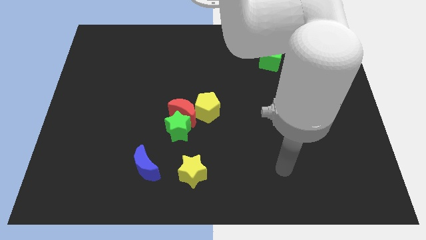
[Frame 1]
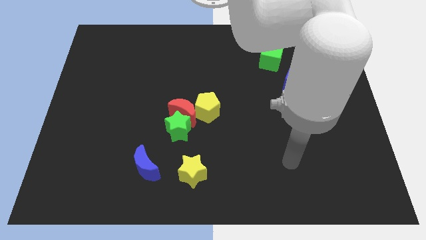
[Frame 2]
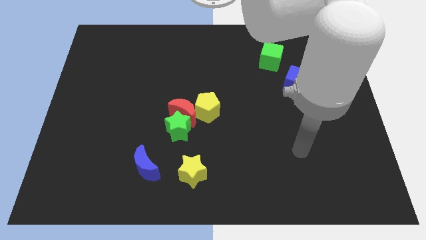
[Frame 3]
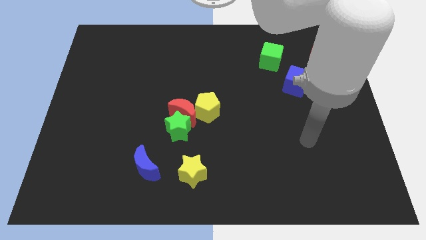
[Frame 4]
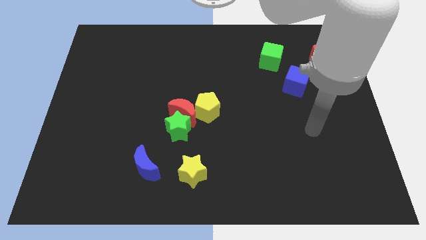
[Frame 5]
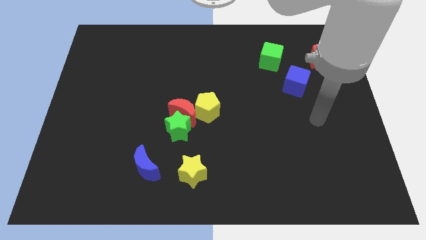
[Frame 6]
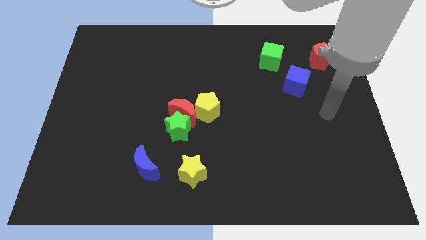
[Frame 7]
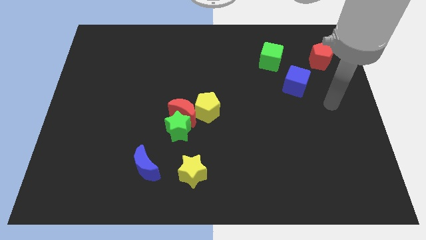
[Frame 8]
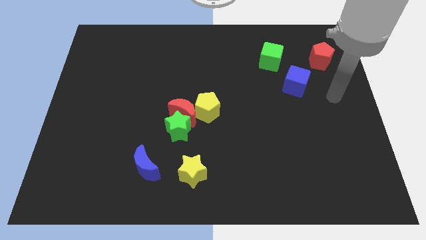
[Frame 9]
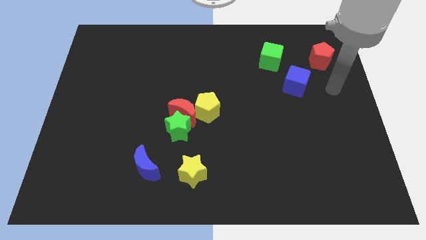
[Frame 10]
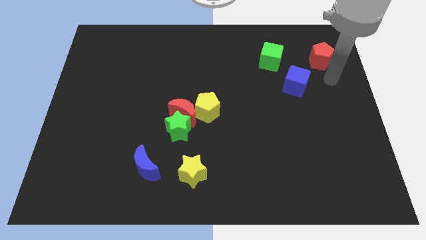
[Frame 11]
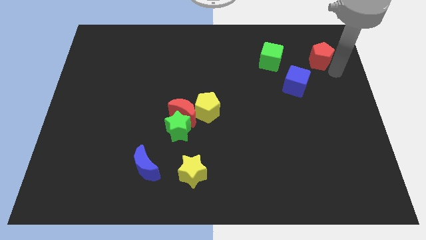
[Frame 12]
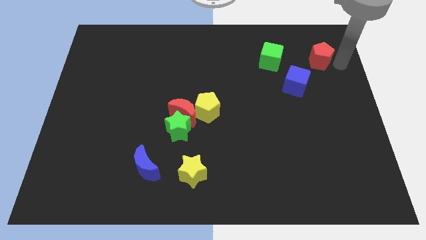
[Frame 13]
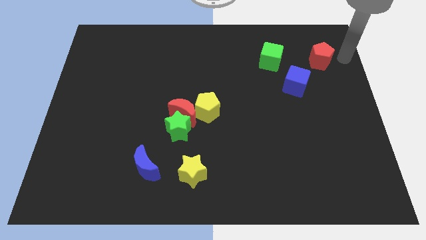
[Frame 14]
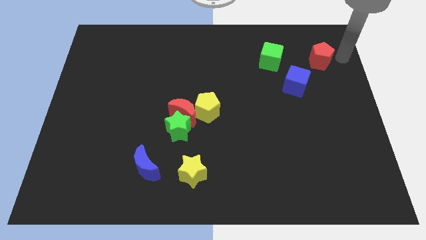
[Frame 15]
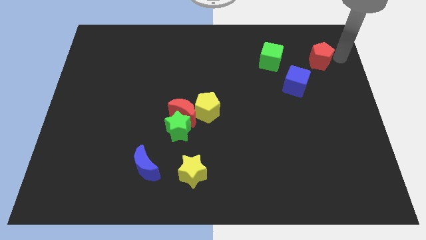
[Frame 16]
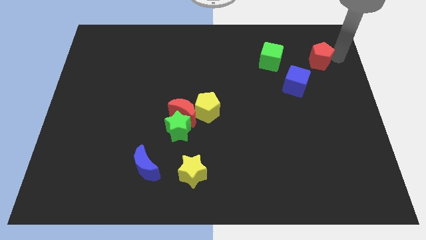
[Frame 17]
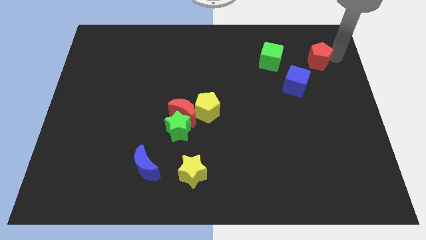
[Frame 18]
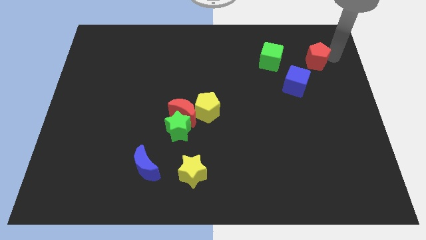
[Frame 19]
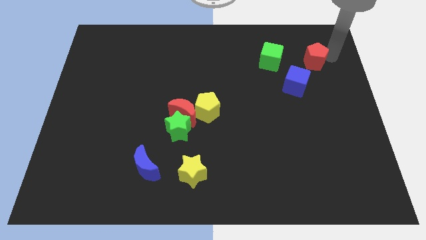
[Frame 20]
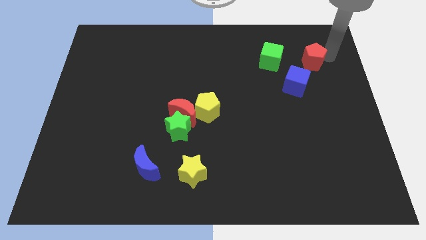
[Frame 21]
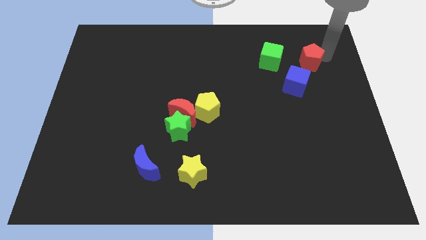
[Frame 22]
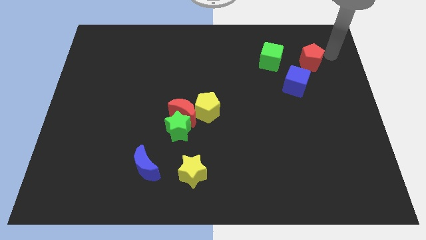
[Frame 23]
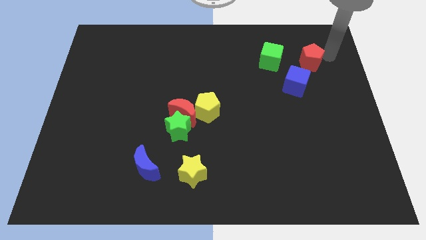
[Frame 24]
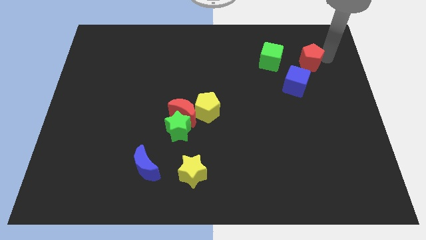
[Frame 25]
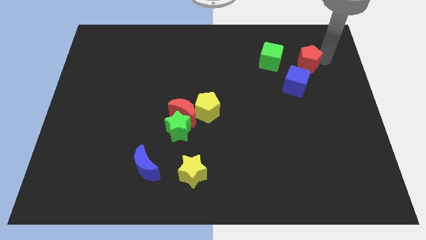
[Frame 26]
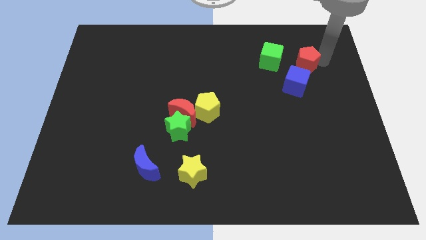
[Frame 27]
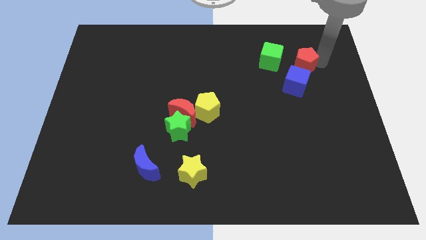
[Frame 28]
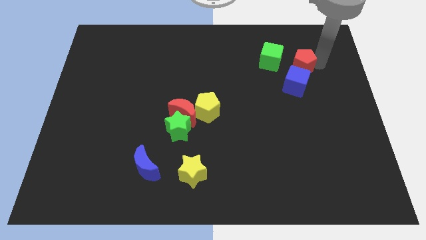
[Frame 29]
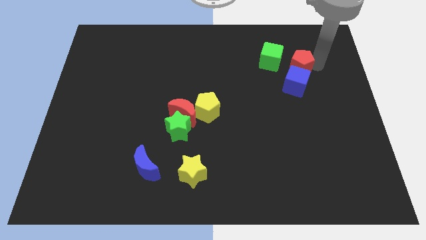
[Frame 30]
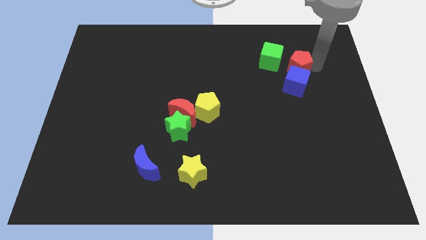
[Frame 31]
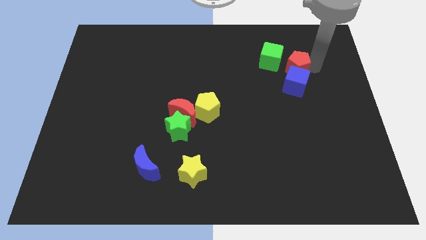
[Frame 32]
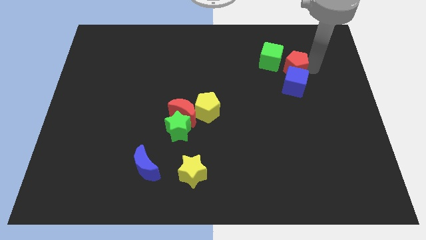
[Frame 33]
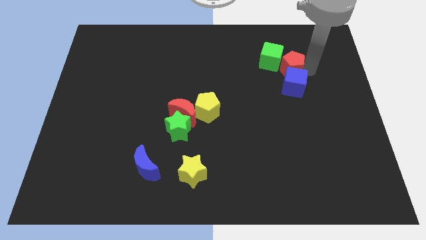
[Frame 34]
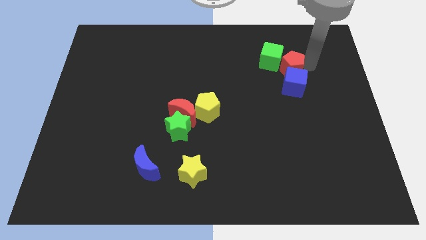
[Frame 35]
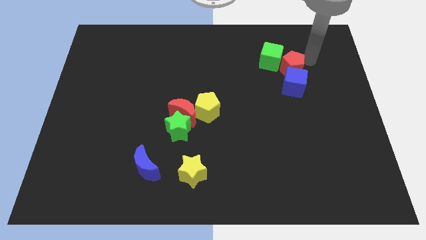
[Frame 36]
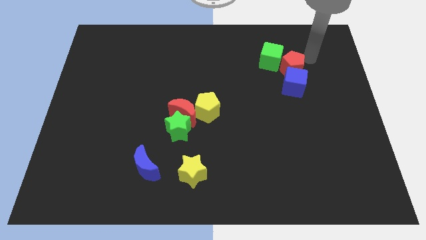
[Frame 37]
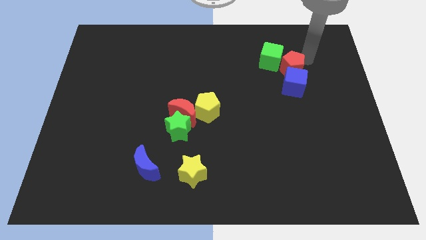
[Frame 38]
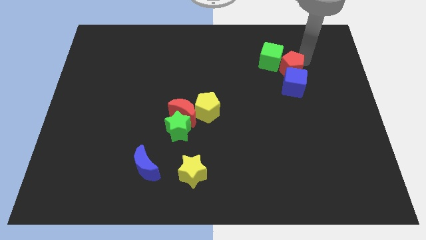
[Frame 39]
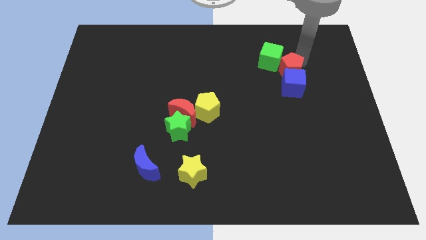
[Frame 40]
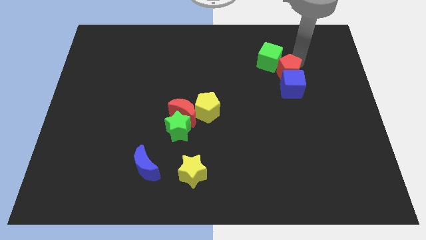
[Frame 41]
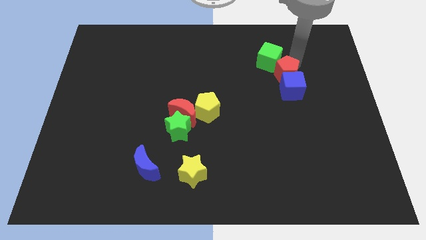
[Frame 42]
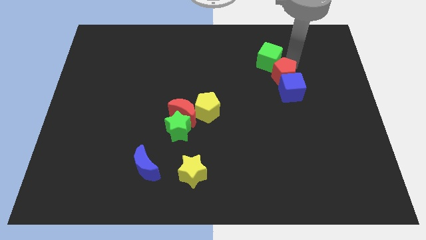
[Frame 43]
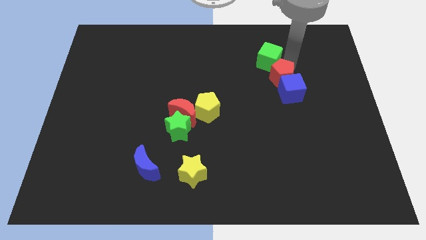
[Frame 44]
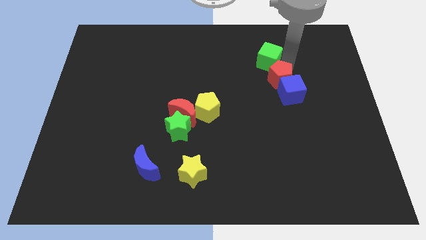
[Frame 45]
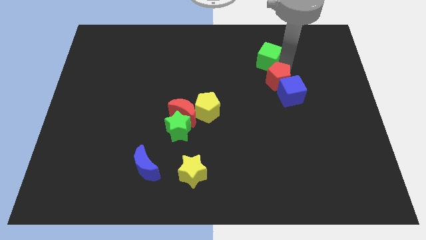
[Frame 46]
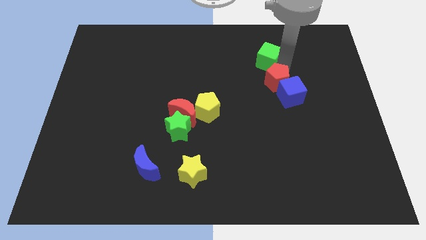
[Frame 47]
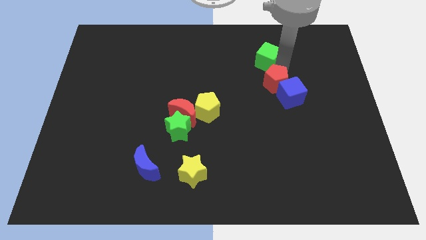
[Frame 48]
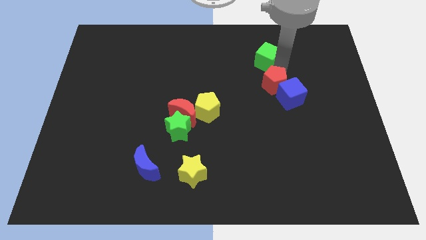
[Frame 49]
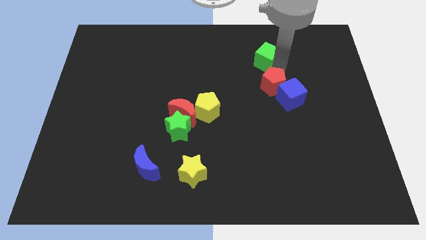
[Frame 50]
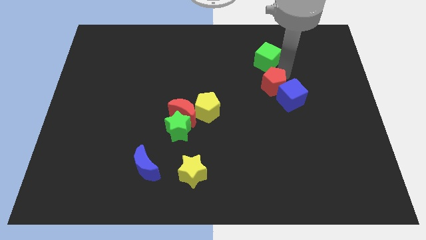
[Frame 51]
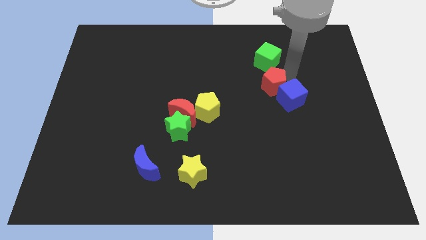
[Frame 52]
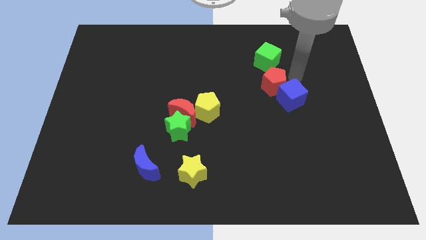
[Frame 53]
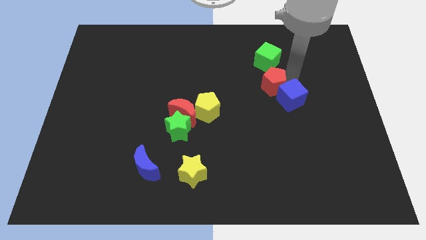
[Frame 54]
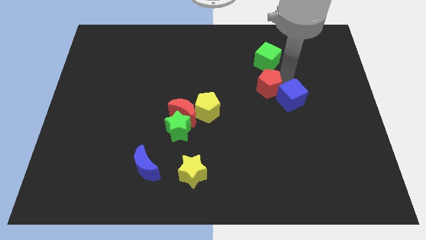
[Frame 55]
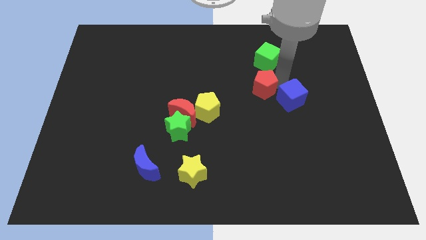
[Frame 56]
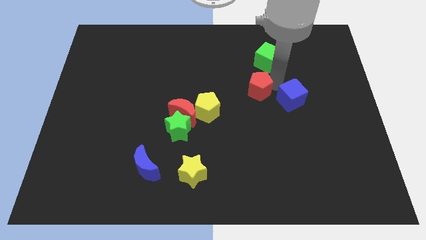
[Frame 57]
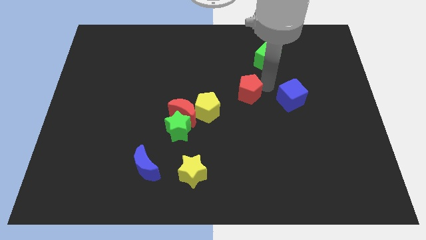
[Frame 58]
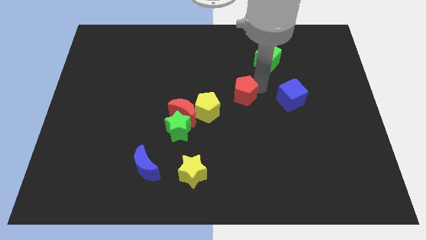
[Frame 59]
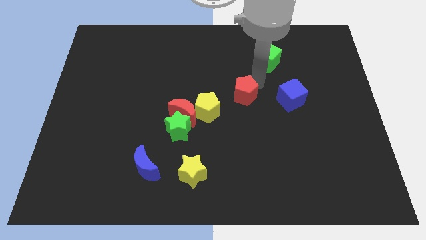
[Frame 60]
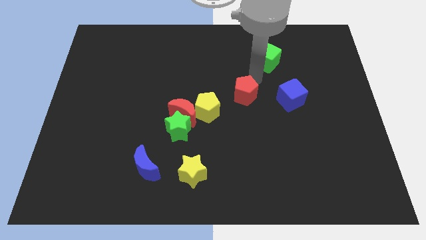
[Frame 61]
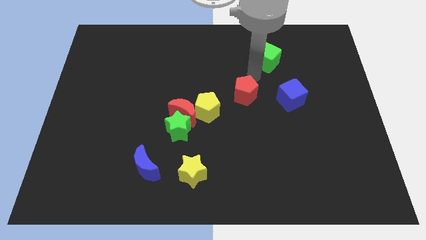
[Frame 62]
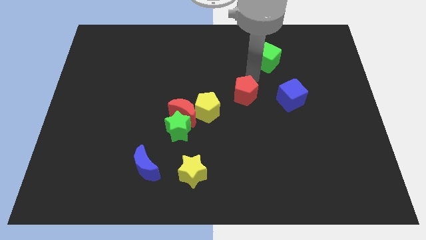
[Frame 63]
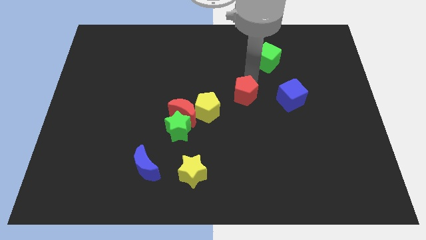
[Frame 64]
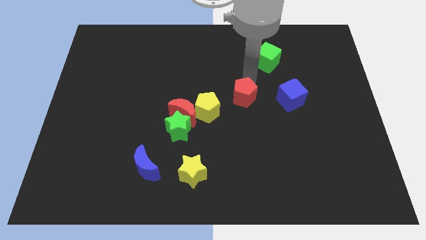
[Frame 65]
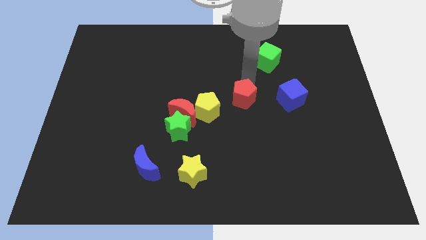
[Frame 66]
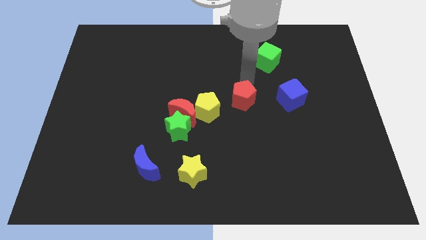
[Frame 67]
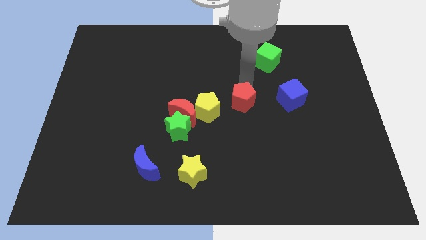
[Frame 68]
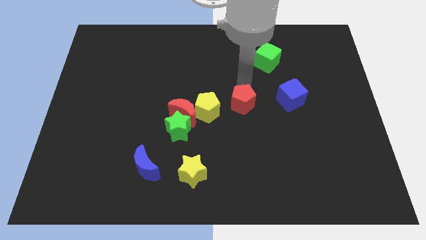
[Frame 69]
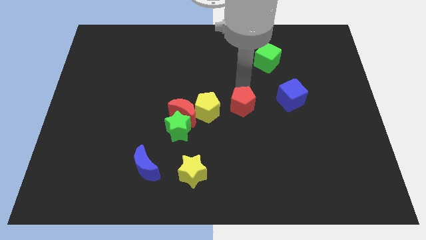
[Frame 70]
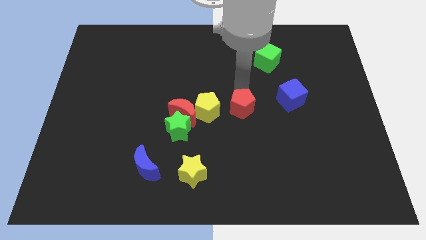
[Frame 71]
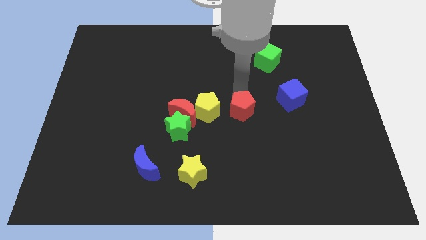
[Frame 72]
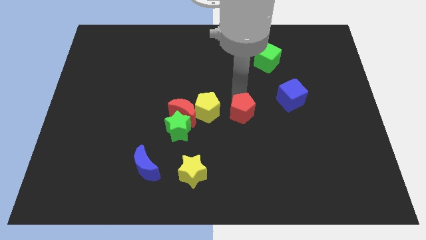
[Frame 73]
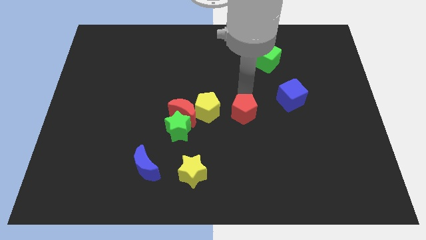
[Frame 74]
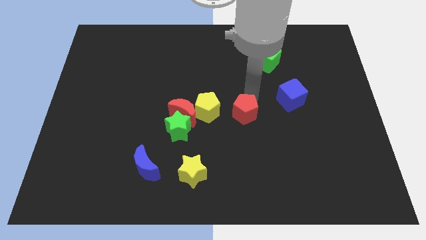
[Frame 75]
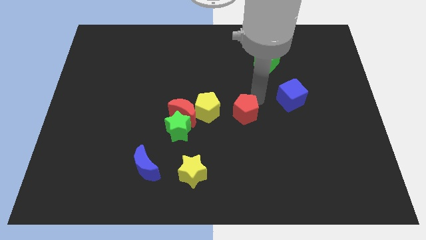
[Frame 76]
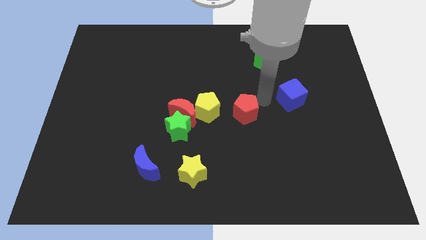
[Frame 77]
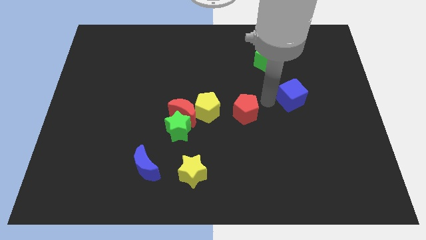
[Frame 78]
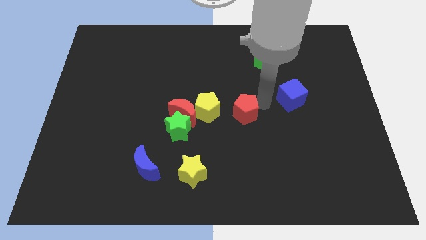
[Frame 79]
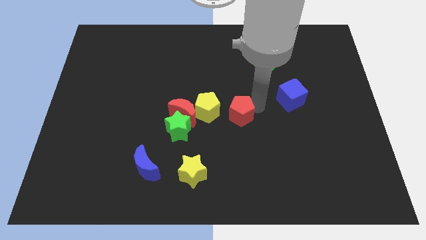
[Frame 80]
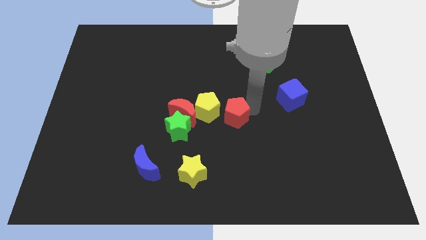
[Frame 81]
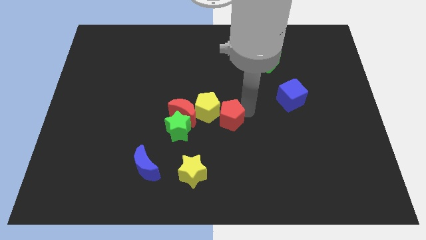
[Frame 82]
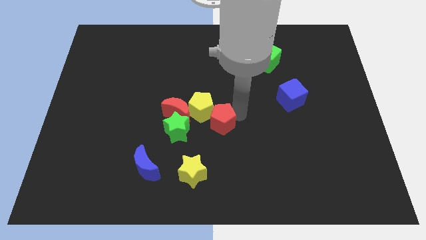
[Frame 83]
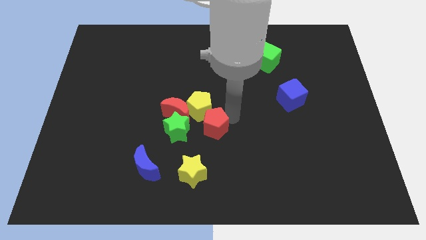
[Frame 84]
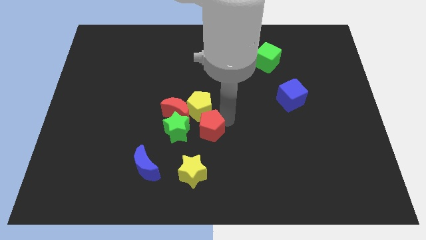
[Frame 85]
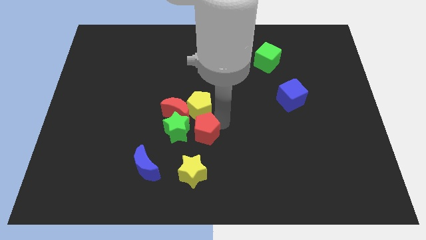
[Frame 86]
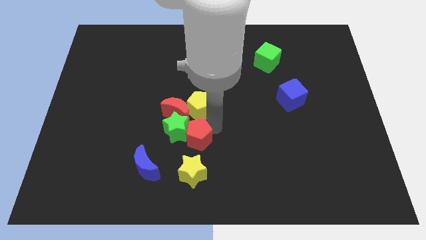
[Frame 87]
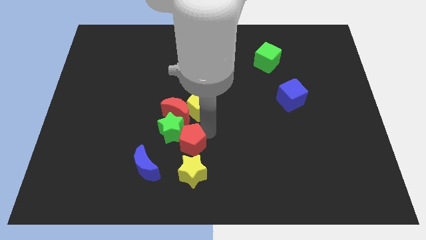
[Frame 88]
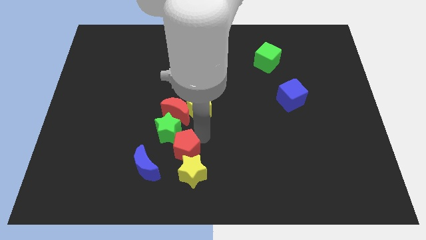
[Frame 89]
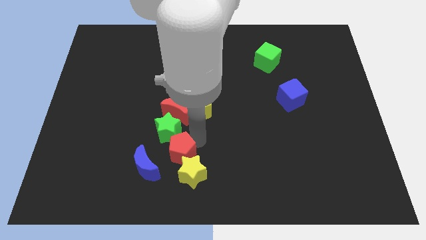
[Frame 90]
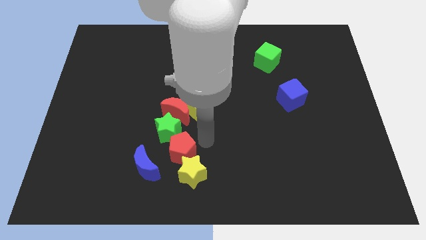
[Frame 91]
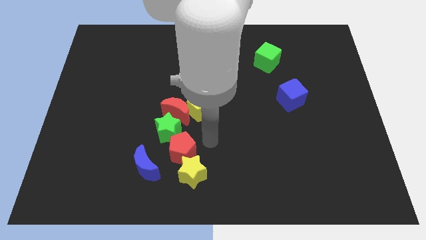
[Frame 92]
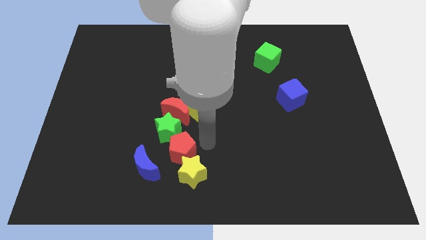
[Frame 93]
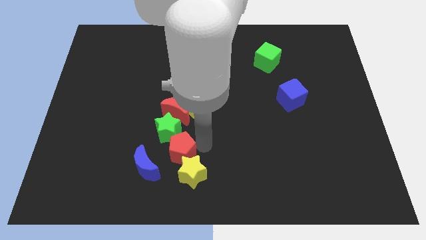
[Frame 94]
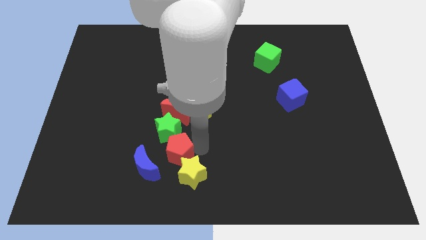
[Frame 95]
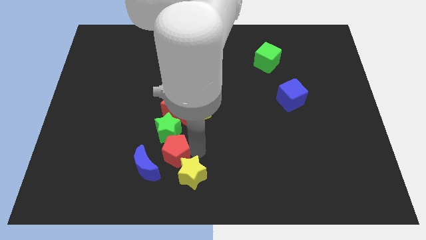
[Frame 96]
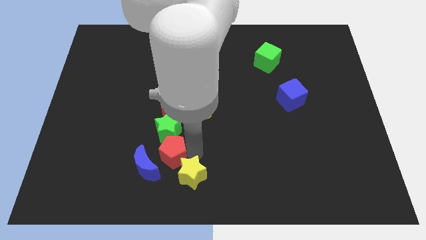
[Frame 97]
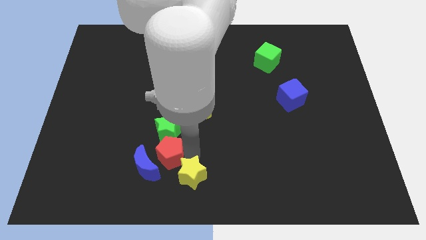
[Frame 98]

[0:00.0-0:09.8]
push the red pentagon towards the blue moon
